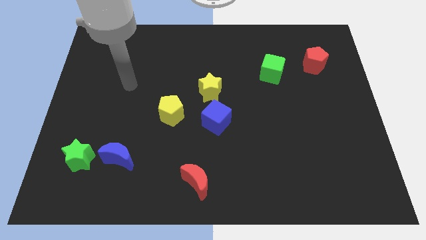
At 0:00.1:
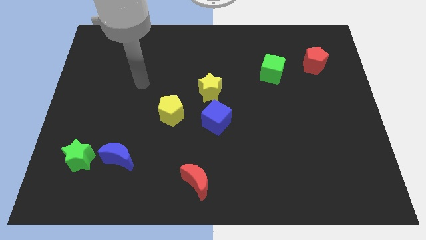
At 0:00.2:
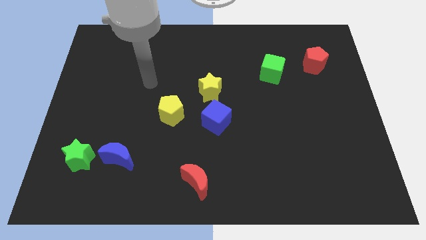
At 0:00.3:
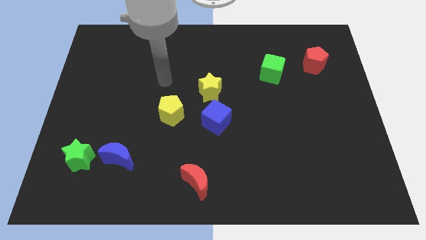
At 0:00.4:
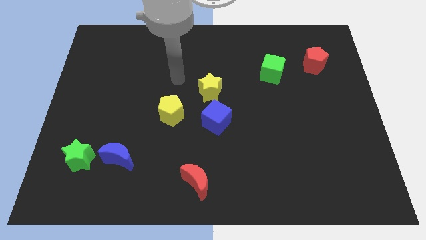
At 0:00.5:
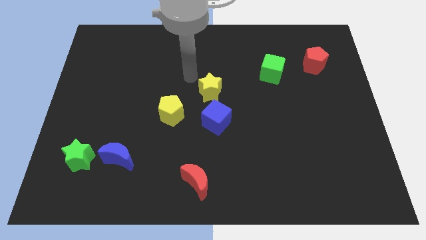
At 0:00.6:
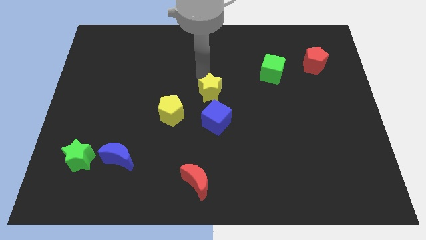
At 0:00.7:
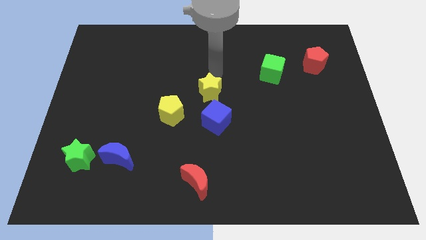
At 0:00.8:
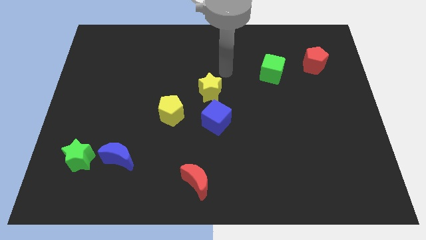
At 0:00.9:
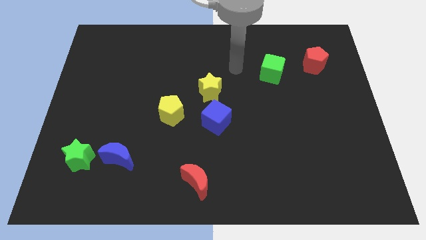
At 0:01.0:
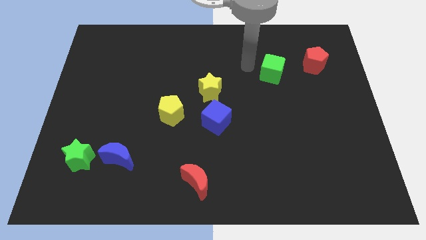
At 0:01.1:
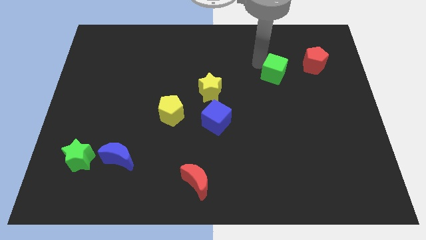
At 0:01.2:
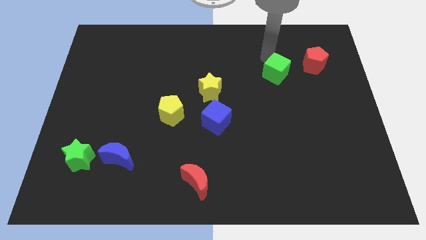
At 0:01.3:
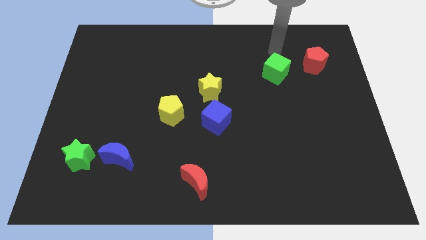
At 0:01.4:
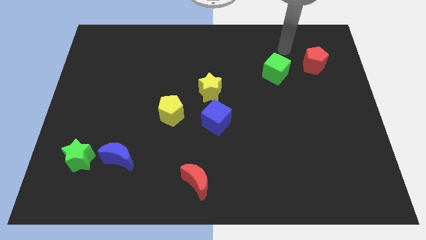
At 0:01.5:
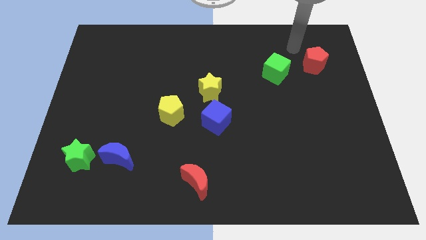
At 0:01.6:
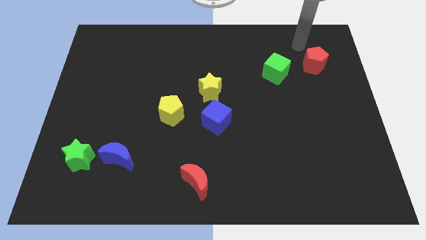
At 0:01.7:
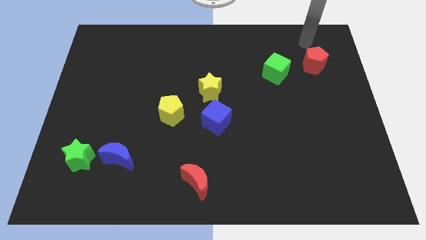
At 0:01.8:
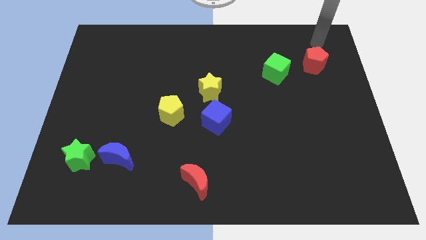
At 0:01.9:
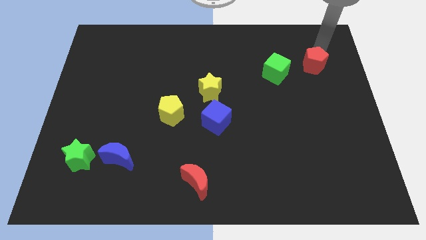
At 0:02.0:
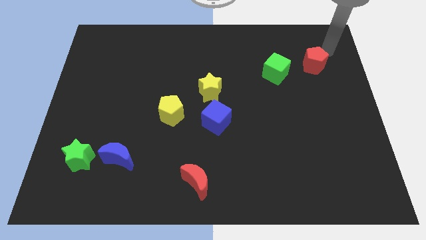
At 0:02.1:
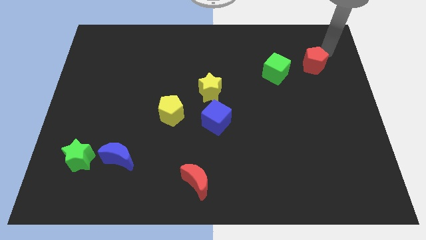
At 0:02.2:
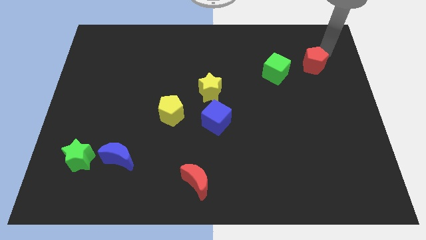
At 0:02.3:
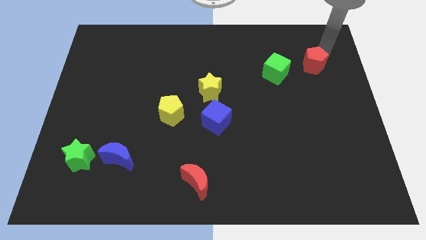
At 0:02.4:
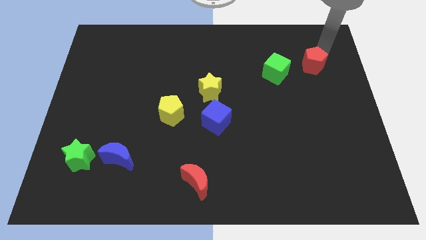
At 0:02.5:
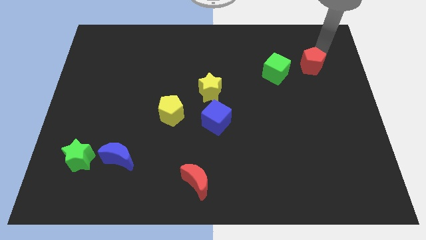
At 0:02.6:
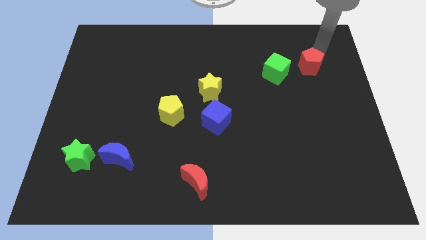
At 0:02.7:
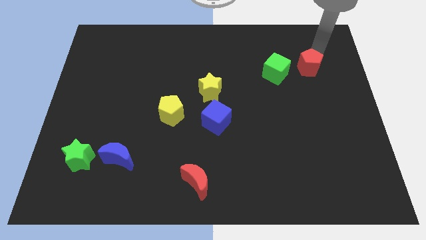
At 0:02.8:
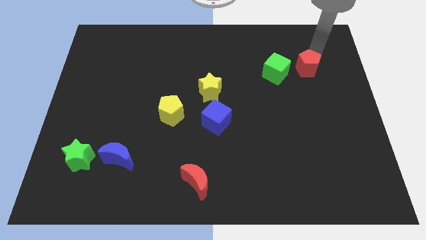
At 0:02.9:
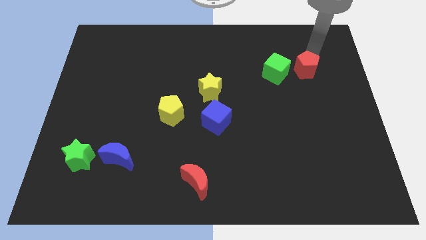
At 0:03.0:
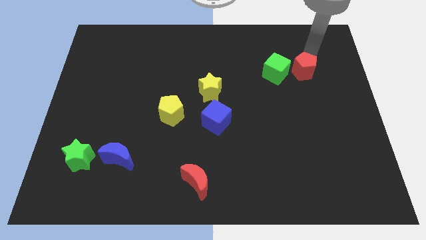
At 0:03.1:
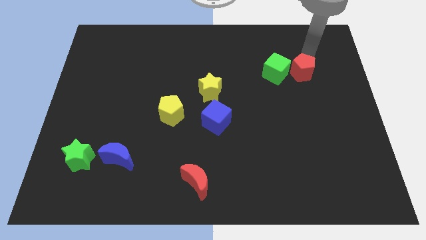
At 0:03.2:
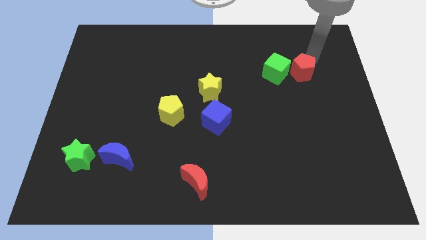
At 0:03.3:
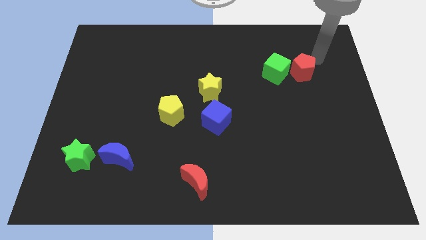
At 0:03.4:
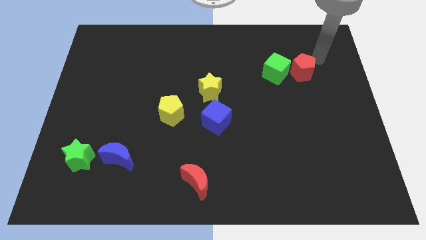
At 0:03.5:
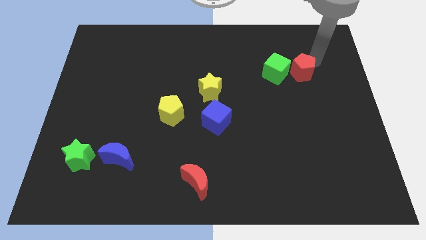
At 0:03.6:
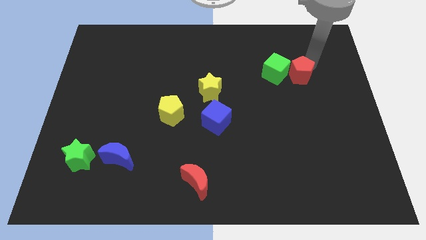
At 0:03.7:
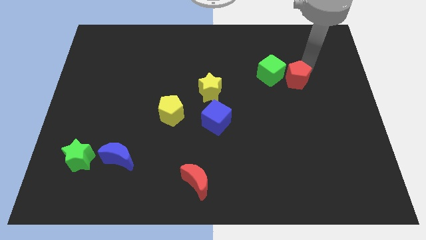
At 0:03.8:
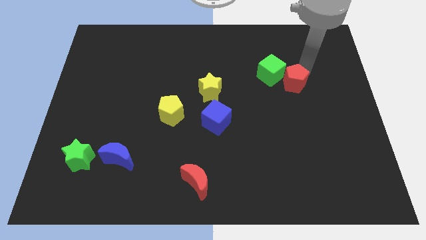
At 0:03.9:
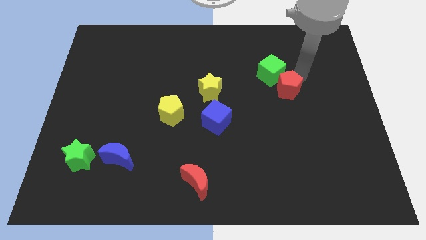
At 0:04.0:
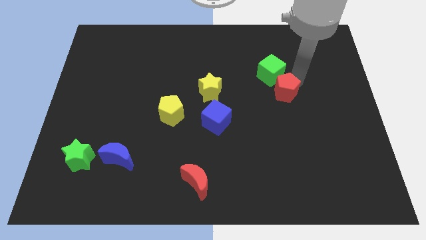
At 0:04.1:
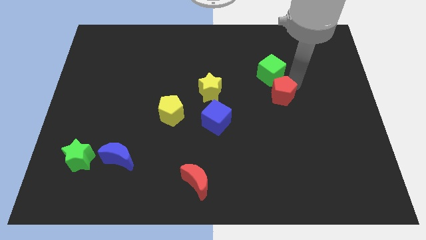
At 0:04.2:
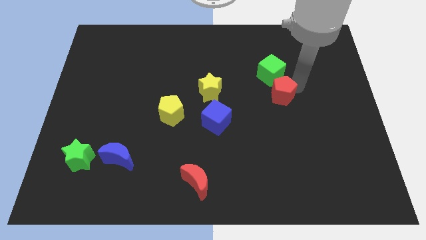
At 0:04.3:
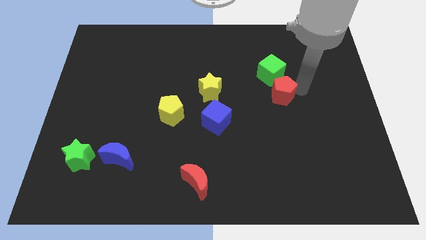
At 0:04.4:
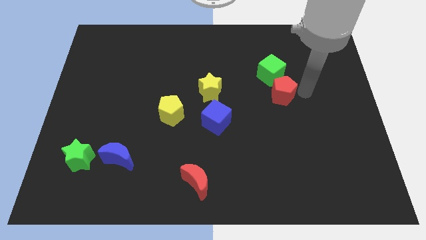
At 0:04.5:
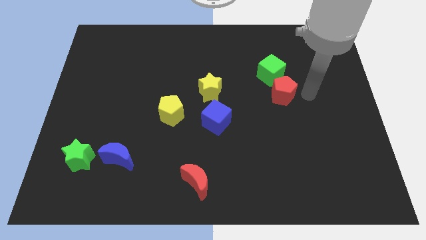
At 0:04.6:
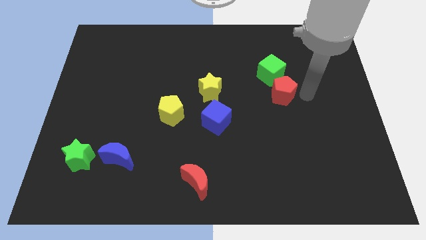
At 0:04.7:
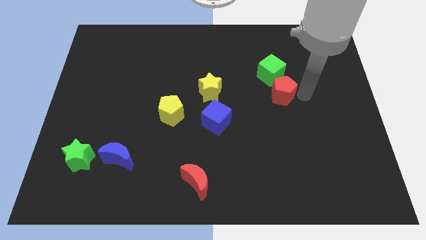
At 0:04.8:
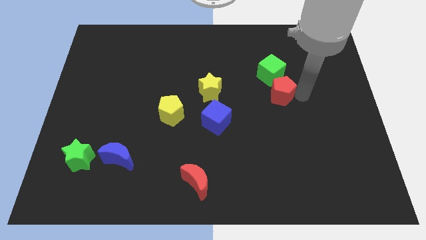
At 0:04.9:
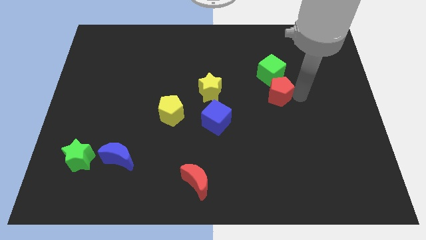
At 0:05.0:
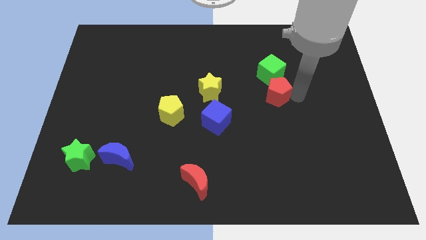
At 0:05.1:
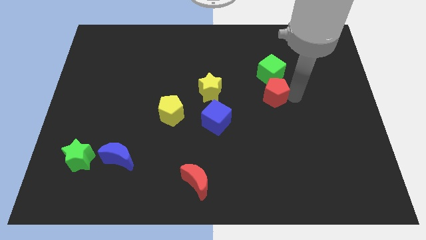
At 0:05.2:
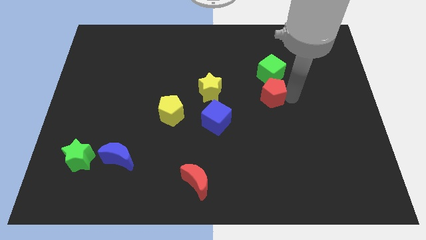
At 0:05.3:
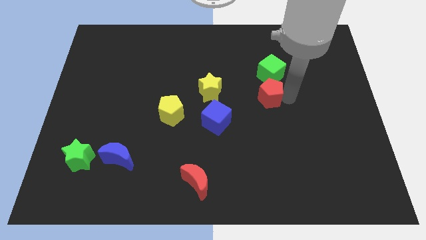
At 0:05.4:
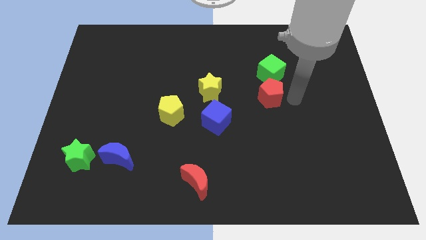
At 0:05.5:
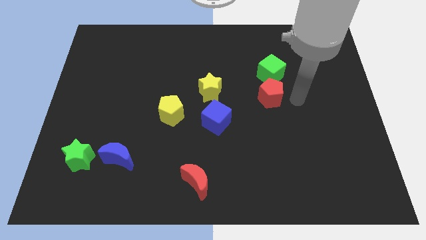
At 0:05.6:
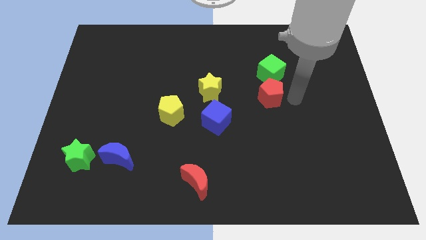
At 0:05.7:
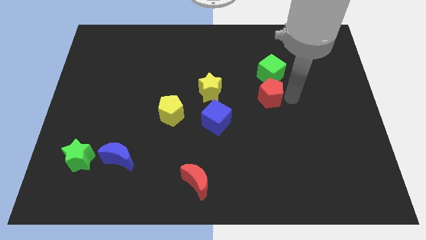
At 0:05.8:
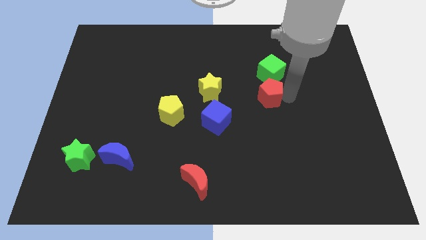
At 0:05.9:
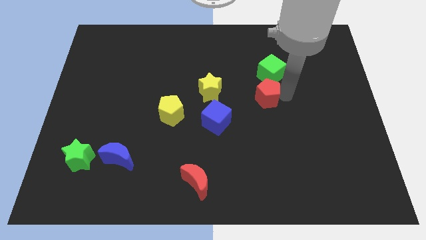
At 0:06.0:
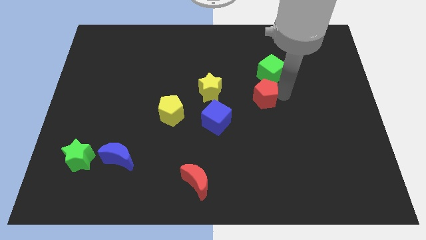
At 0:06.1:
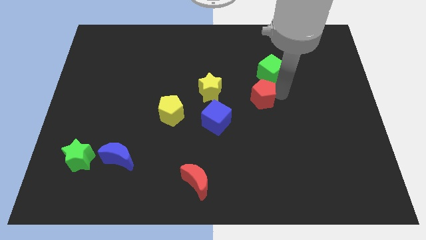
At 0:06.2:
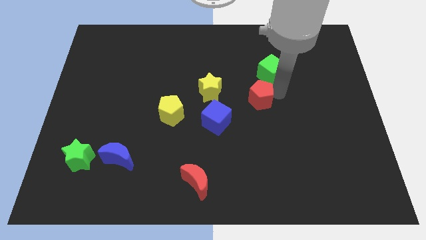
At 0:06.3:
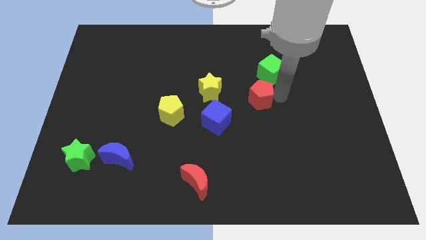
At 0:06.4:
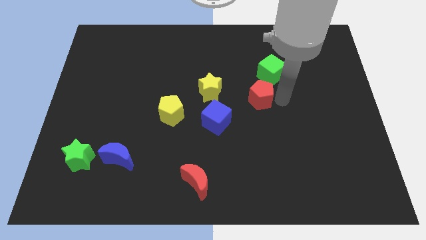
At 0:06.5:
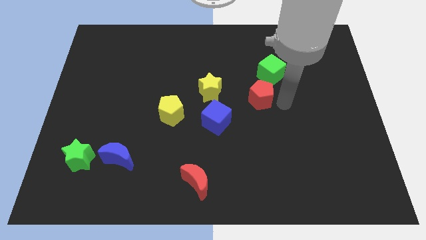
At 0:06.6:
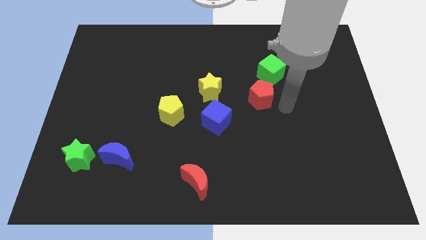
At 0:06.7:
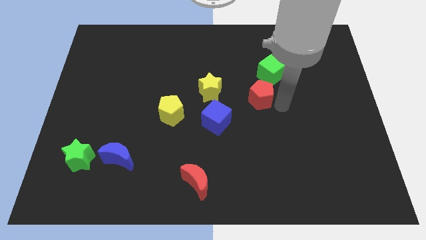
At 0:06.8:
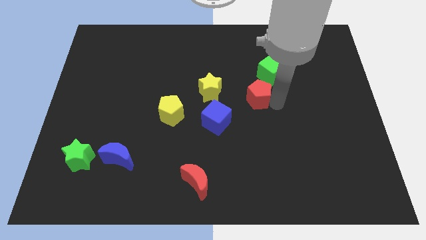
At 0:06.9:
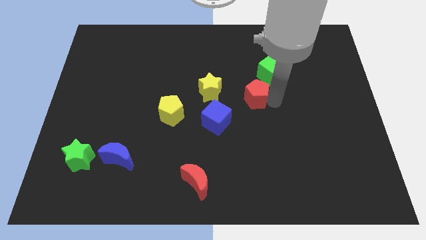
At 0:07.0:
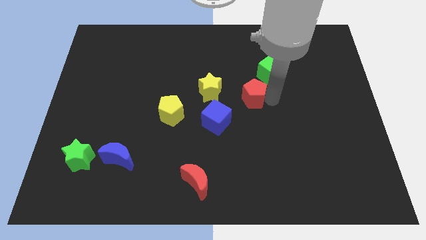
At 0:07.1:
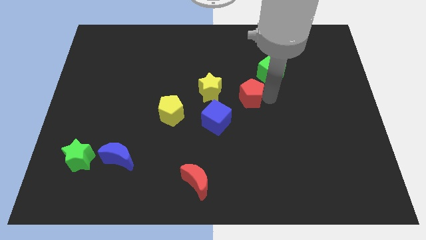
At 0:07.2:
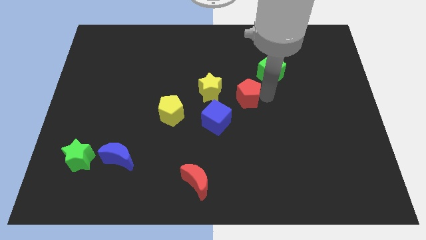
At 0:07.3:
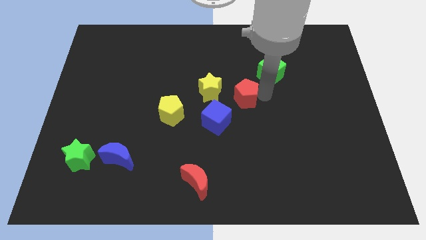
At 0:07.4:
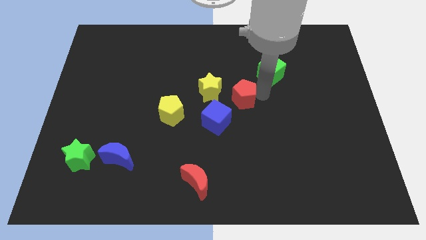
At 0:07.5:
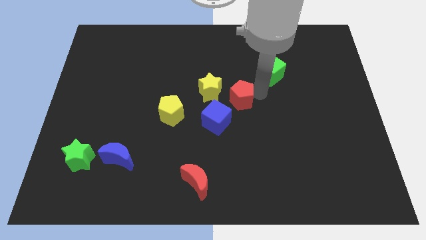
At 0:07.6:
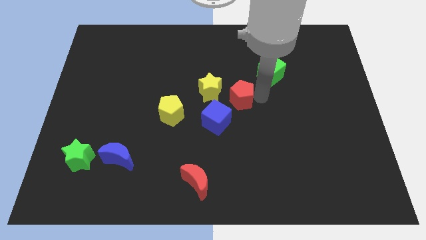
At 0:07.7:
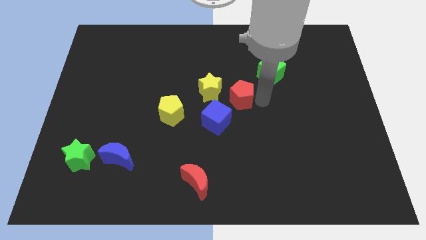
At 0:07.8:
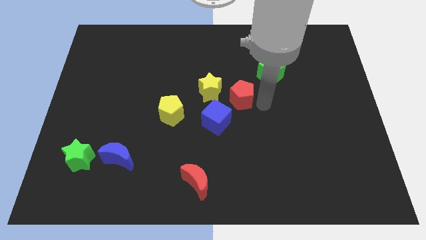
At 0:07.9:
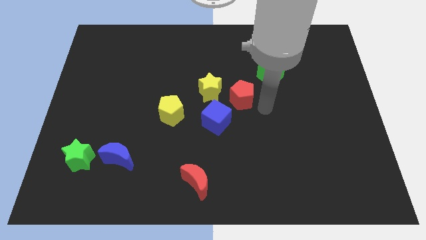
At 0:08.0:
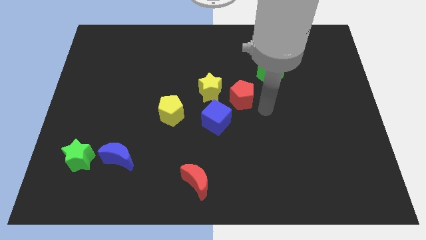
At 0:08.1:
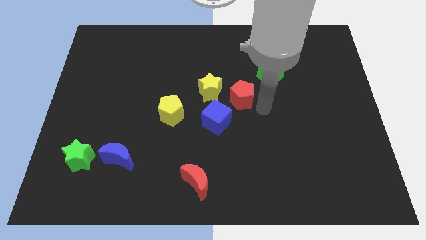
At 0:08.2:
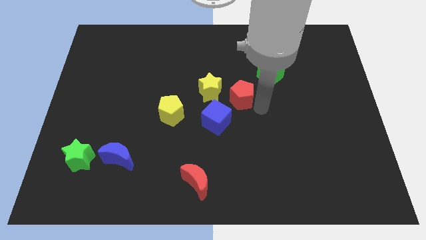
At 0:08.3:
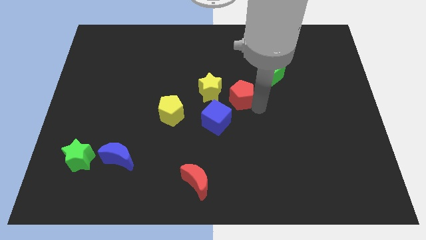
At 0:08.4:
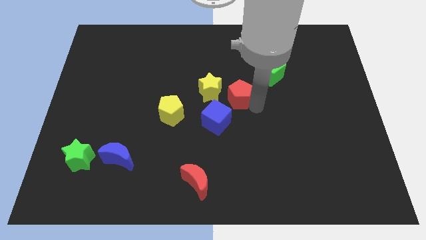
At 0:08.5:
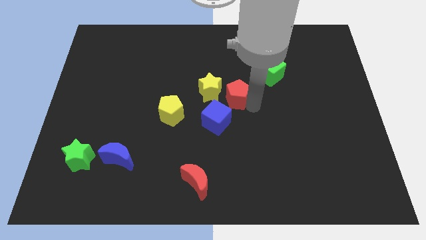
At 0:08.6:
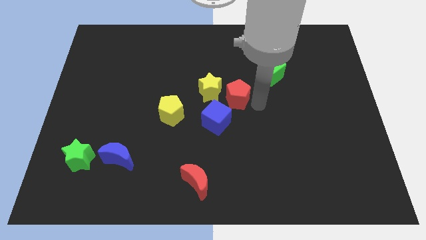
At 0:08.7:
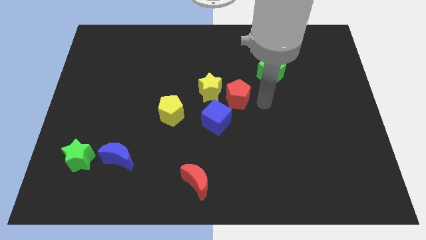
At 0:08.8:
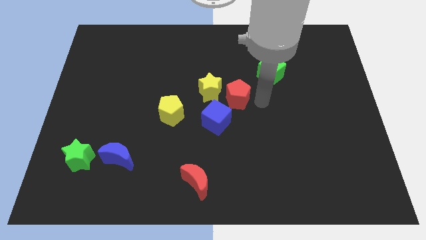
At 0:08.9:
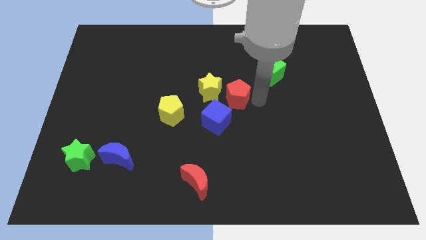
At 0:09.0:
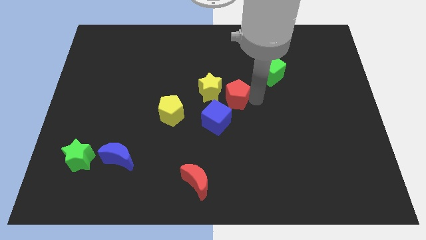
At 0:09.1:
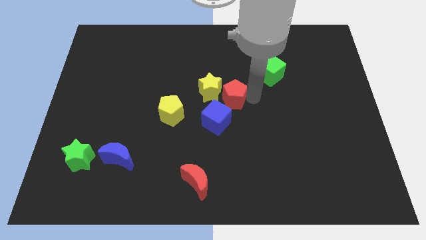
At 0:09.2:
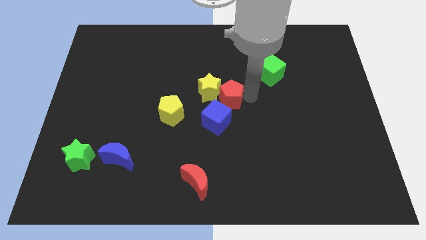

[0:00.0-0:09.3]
move the red pentagon close to the yellow star
